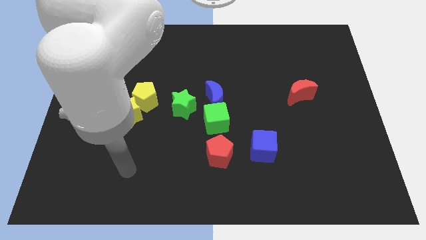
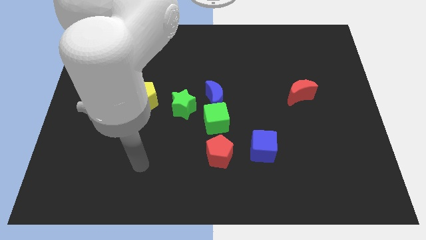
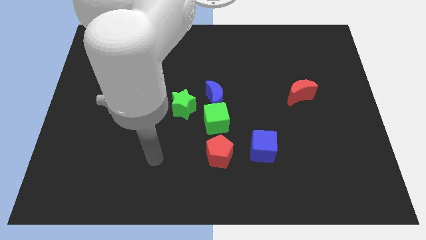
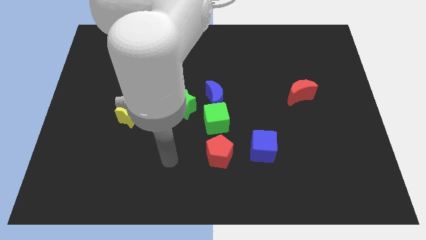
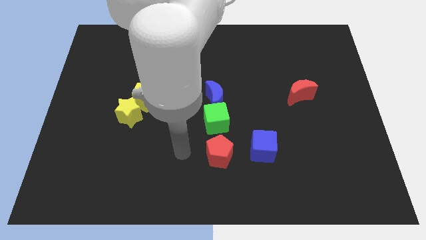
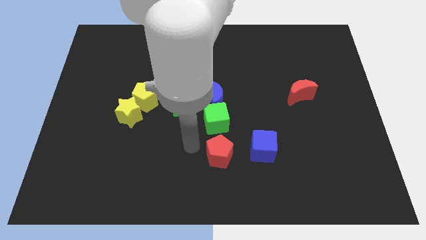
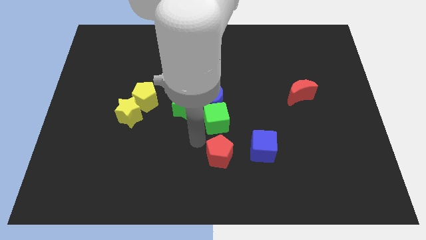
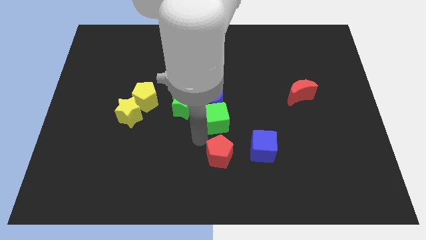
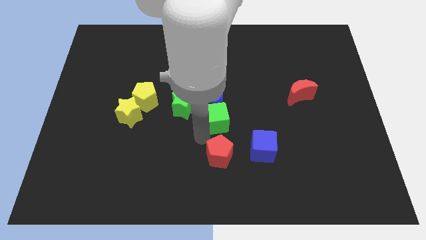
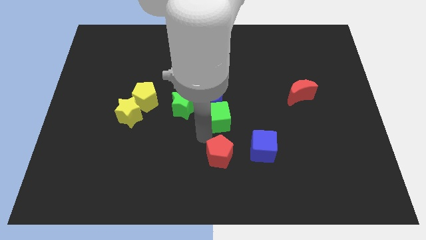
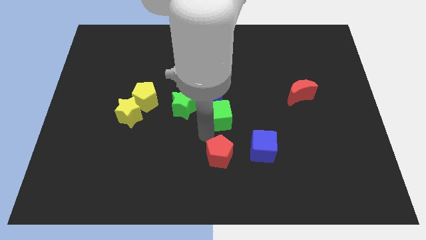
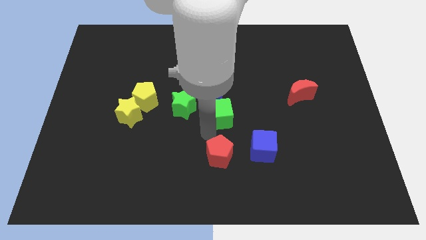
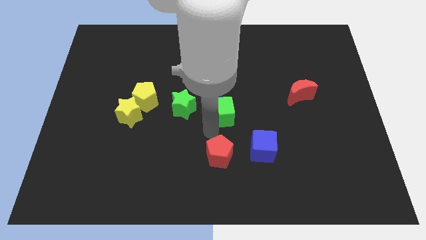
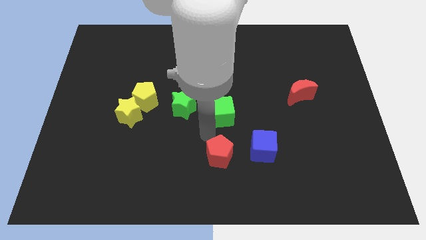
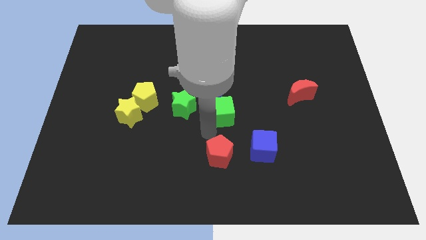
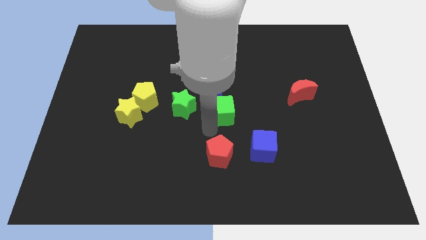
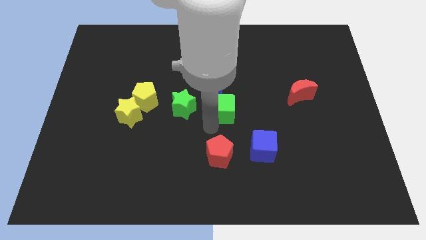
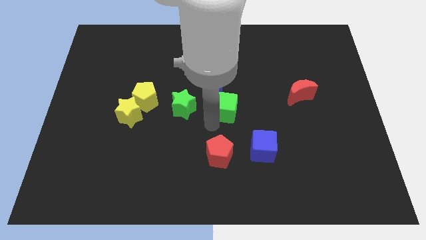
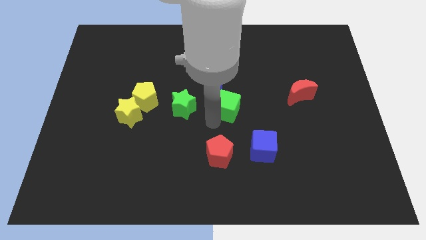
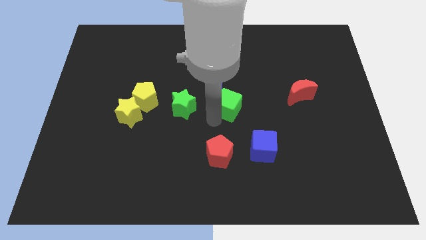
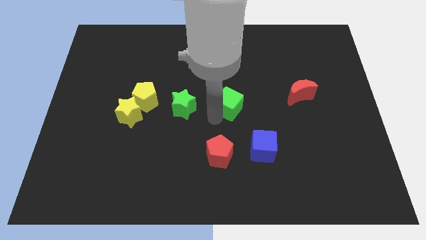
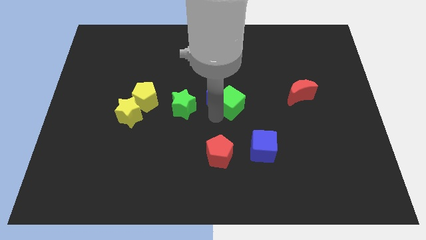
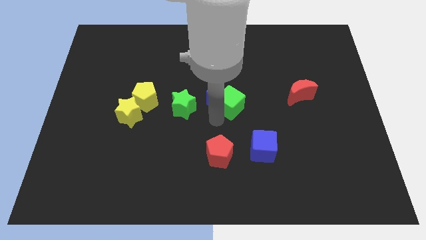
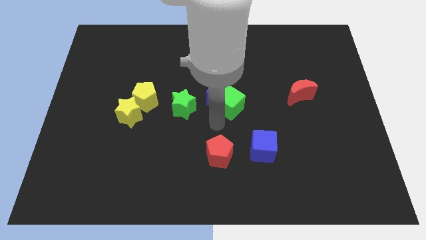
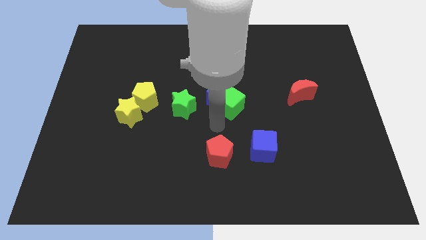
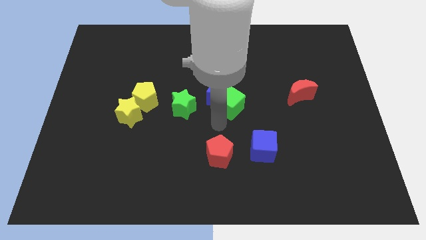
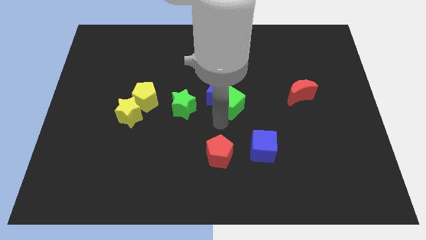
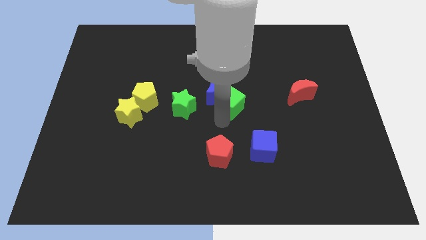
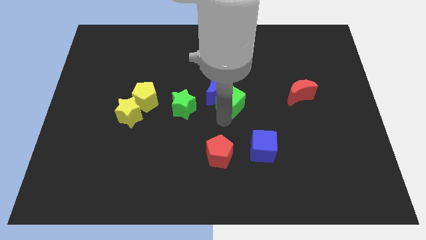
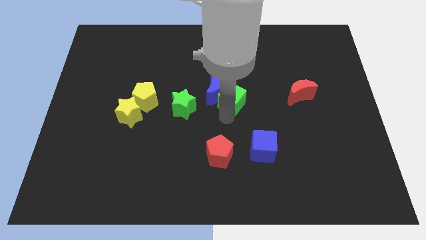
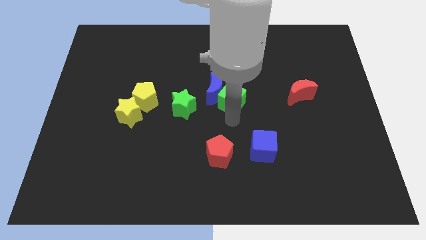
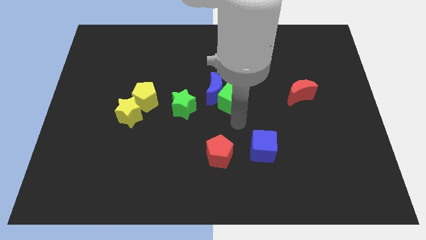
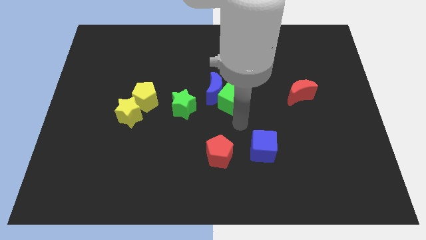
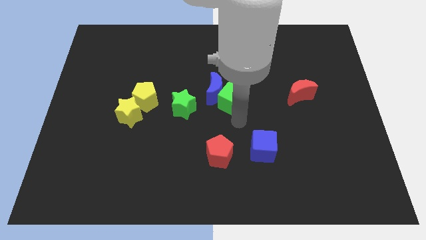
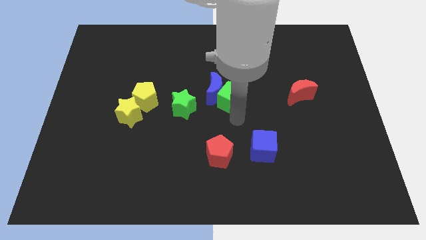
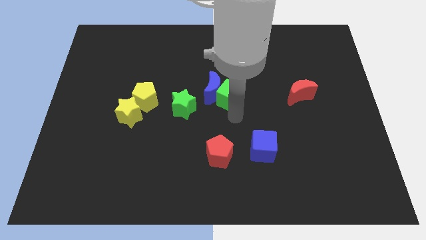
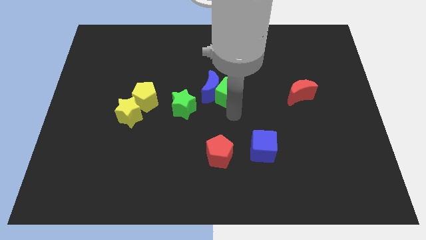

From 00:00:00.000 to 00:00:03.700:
slightly move the green cube upwards

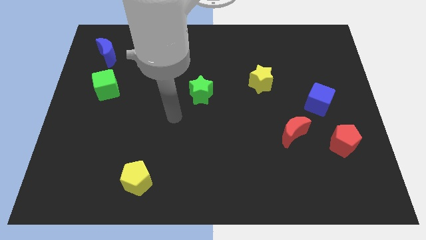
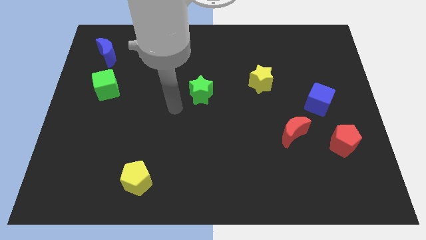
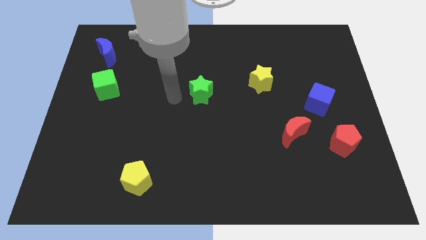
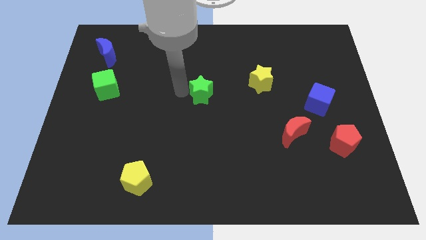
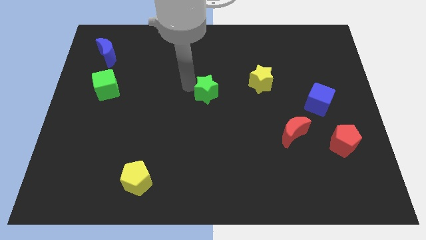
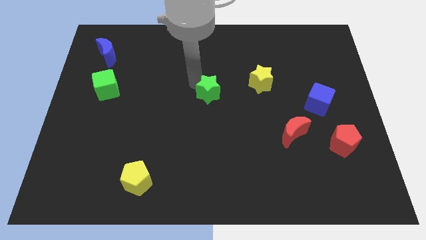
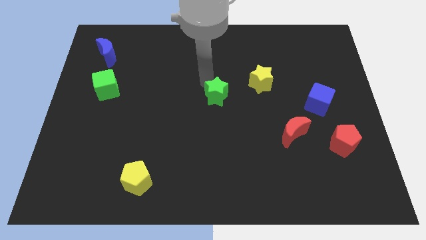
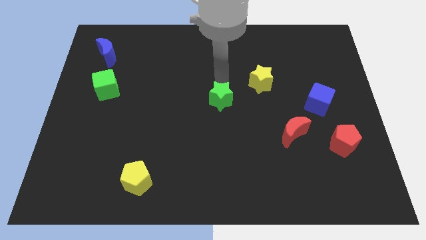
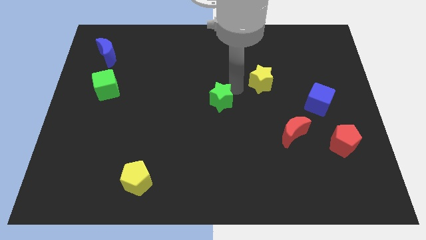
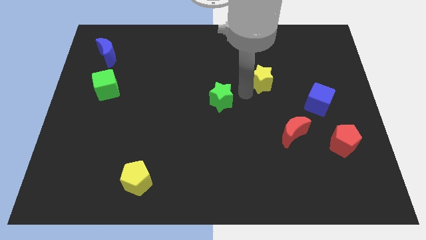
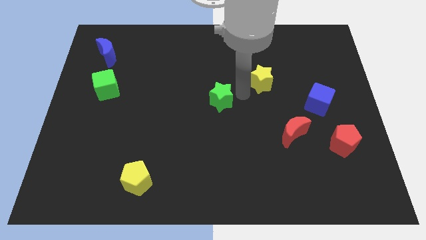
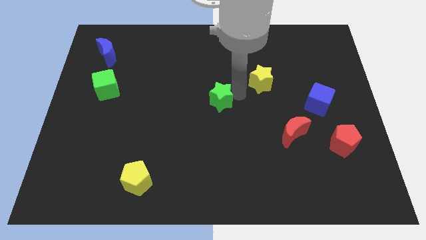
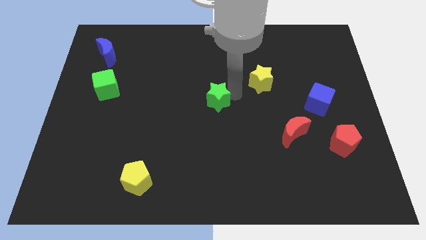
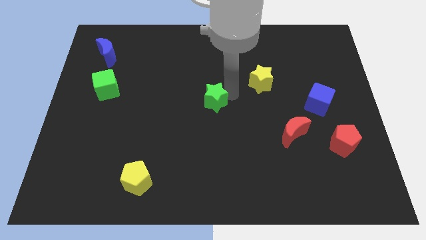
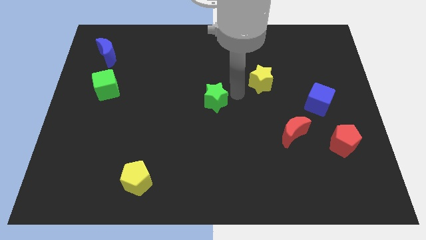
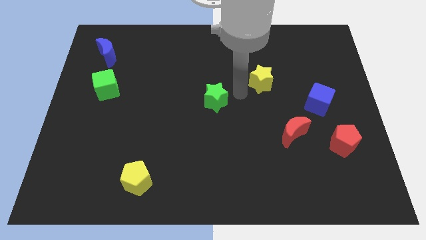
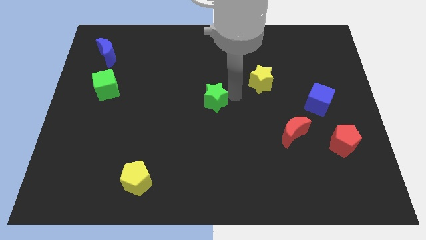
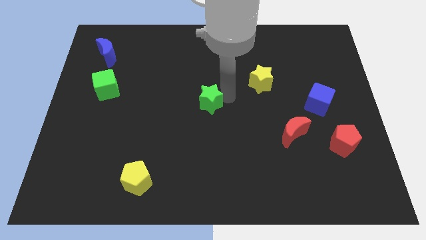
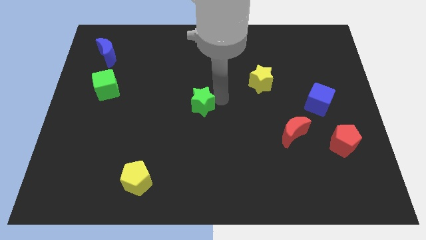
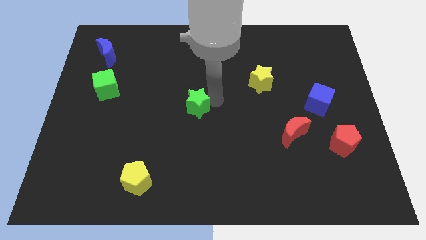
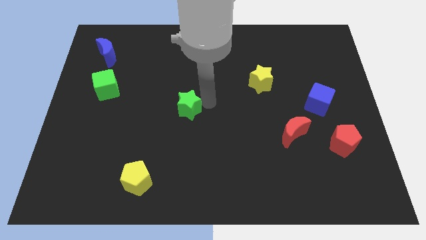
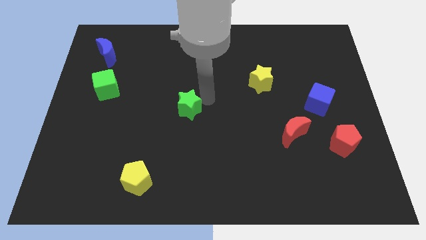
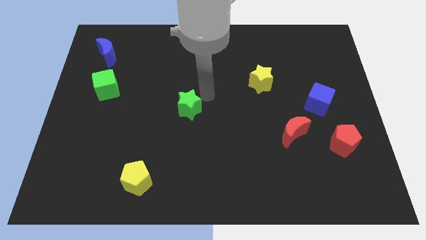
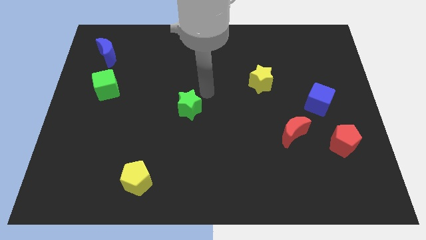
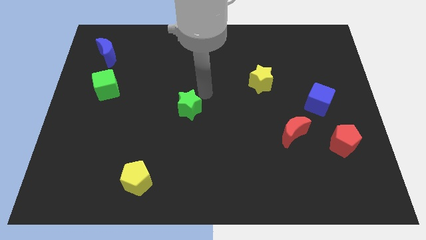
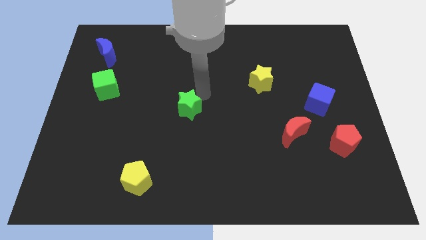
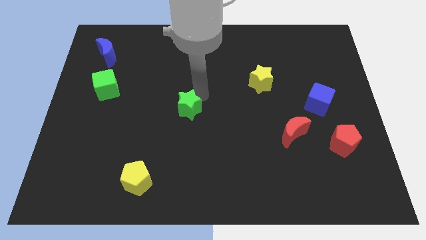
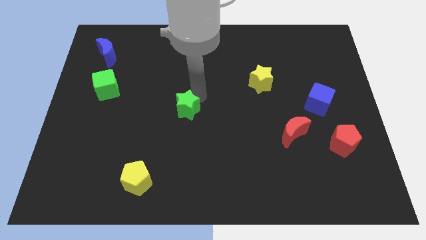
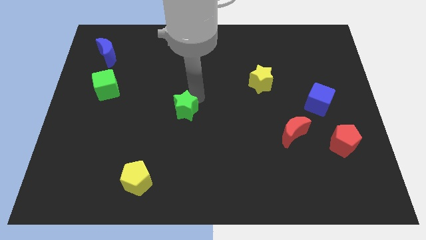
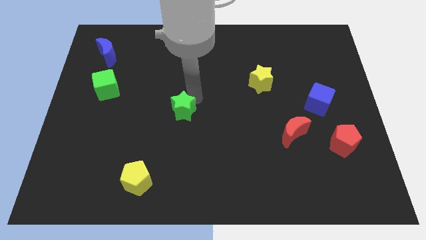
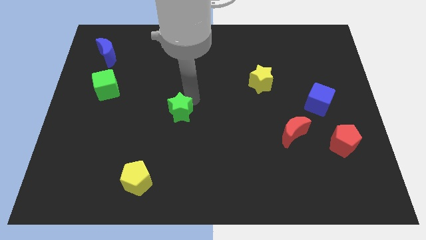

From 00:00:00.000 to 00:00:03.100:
slide the green star a little downwards and to the left diagonally

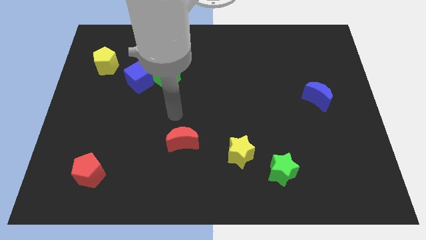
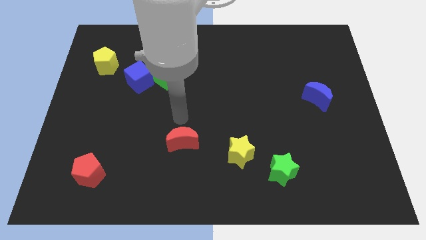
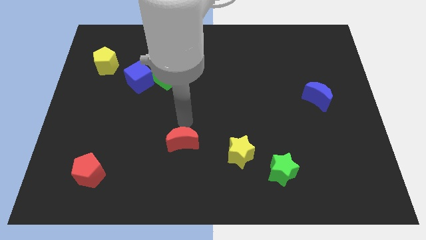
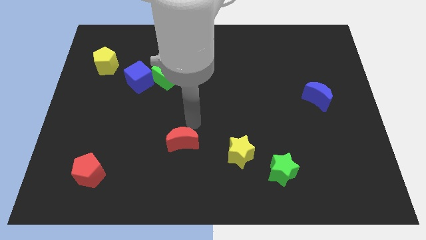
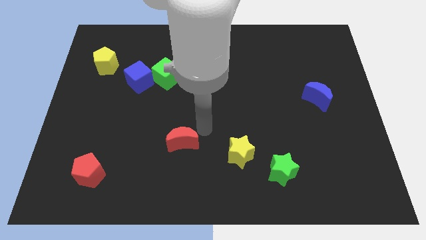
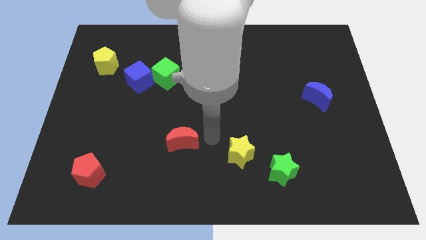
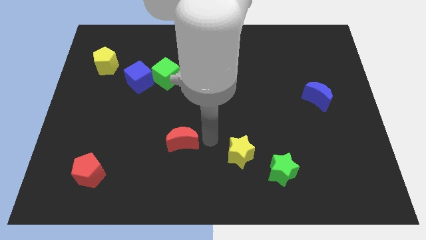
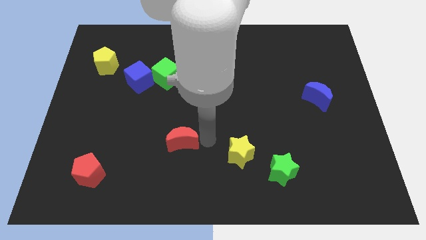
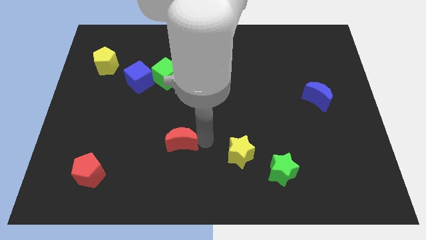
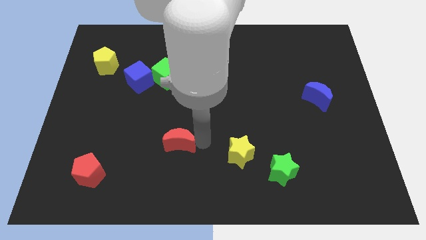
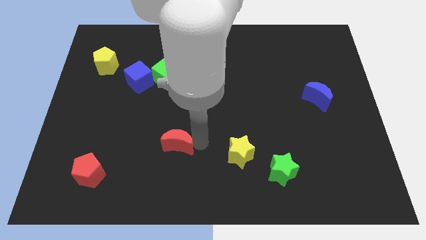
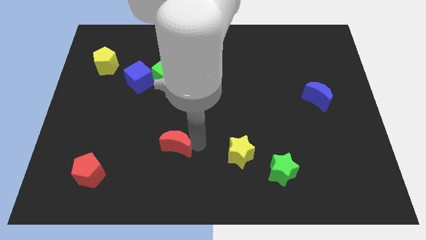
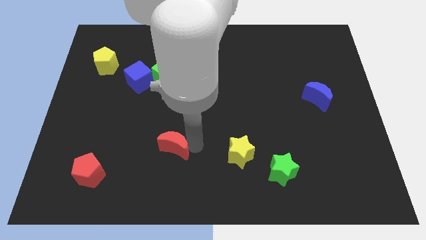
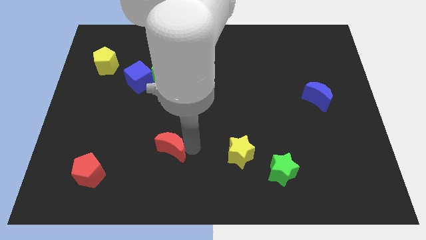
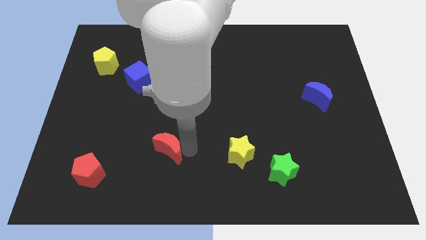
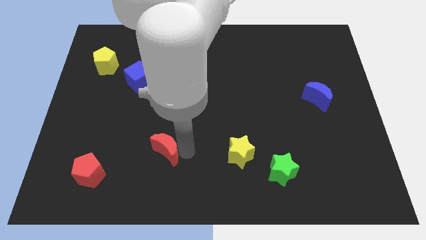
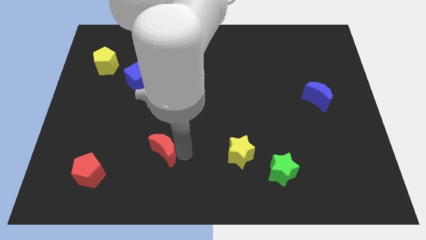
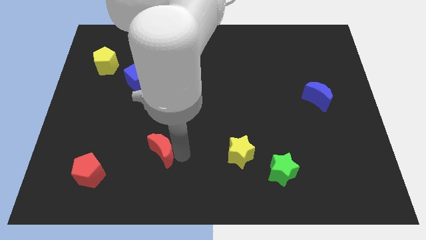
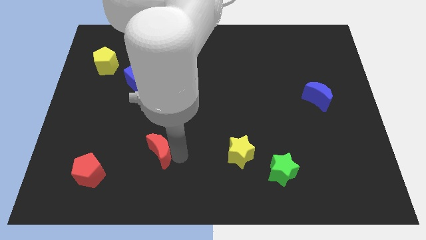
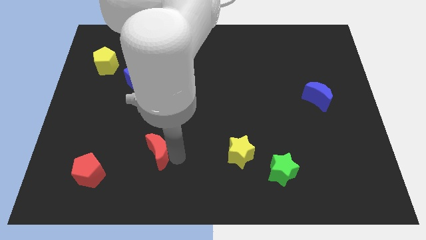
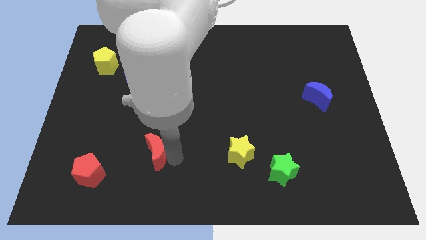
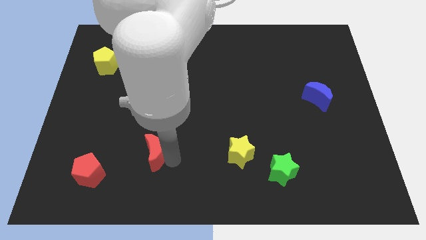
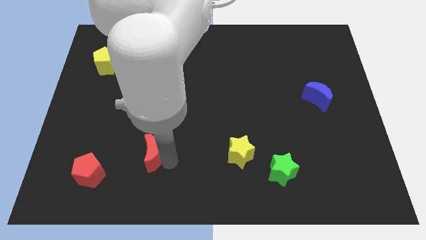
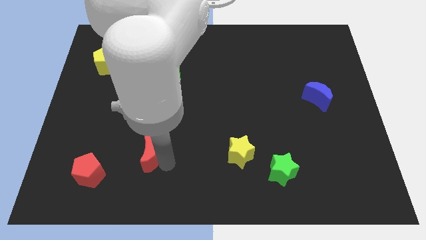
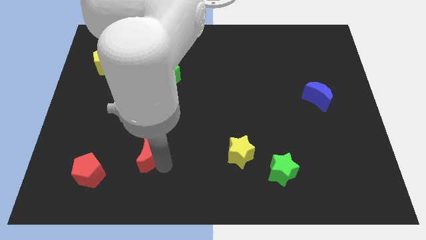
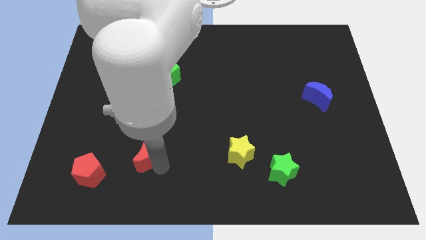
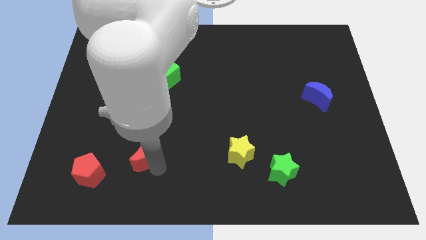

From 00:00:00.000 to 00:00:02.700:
slightly slide the red moon left
